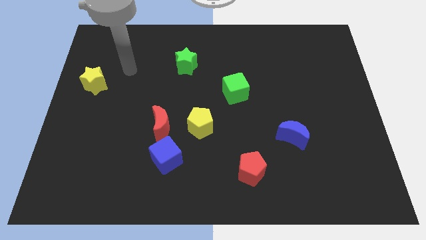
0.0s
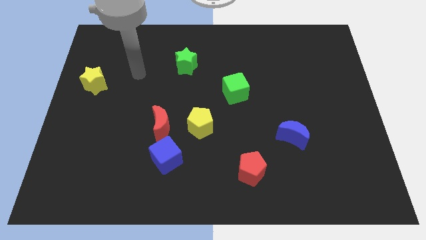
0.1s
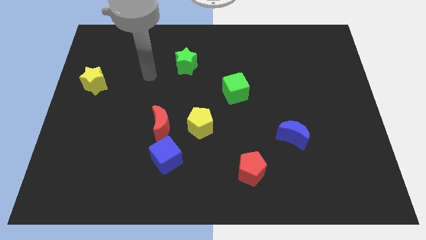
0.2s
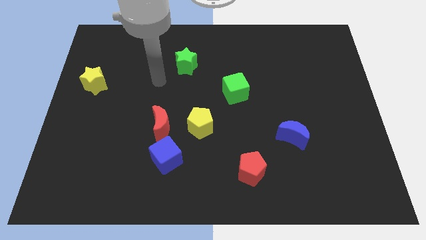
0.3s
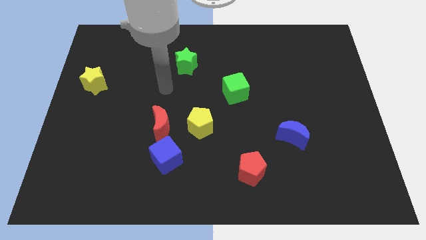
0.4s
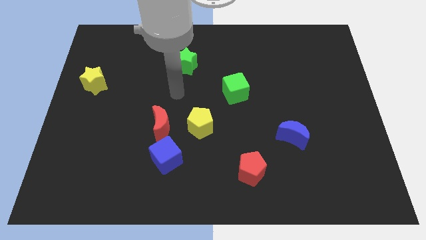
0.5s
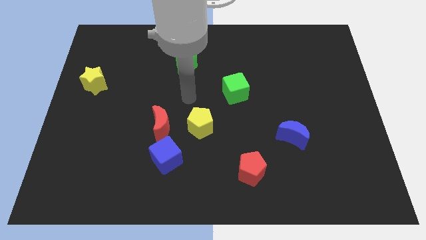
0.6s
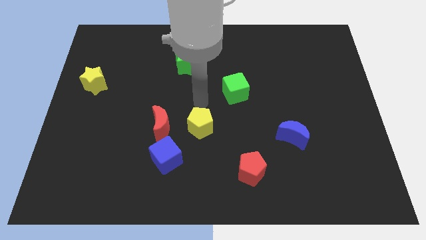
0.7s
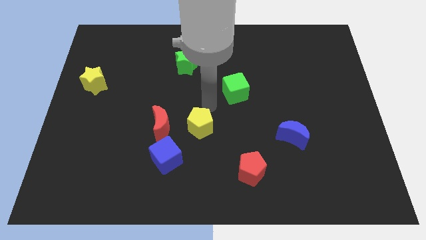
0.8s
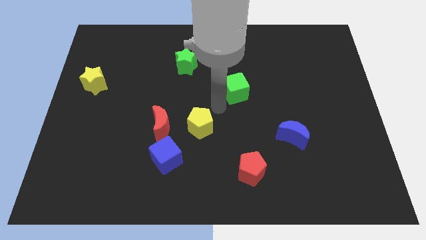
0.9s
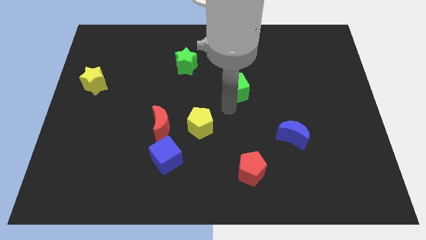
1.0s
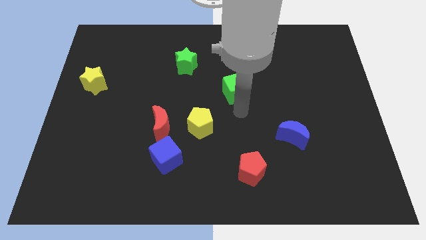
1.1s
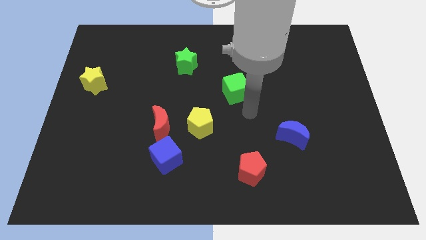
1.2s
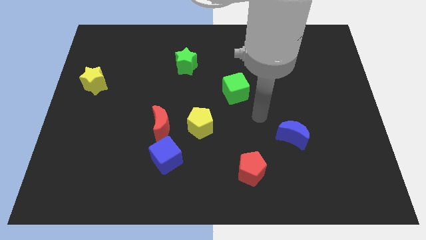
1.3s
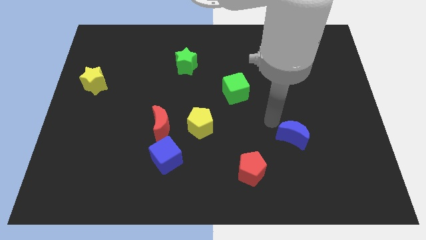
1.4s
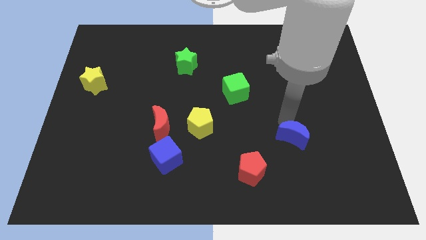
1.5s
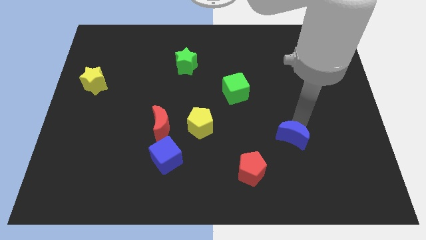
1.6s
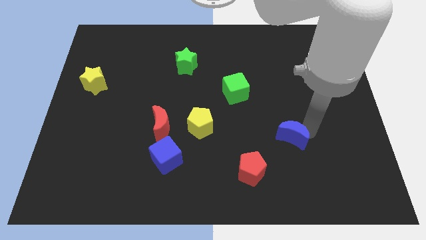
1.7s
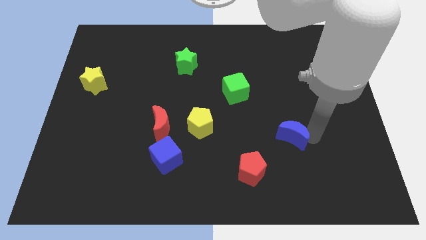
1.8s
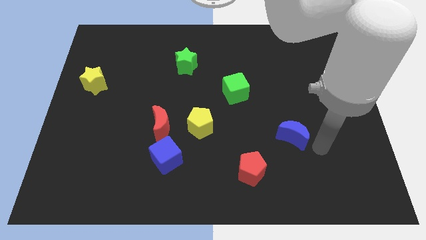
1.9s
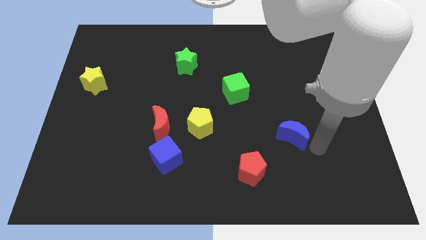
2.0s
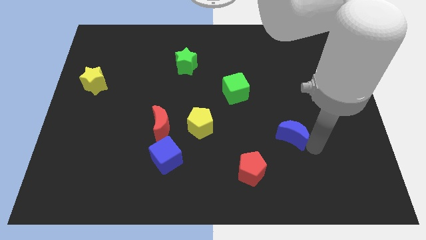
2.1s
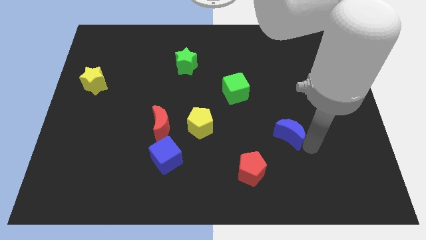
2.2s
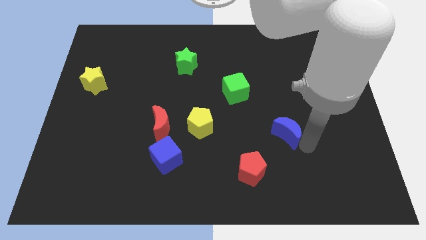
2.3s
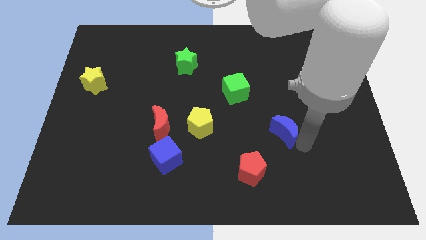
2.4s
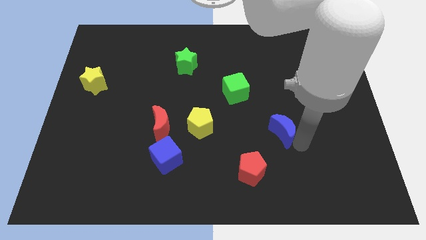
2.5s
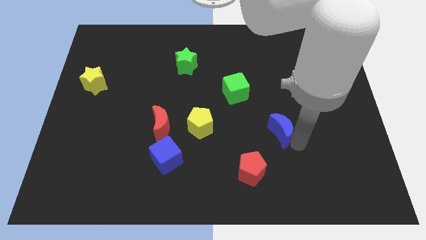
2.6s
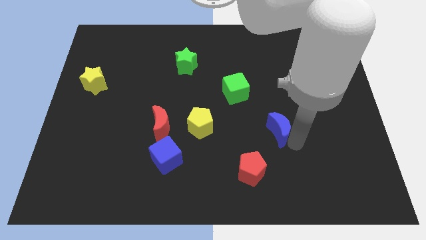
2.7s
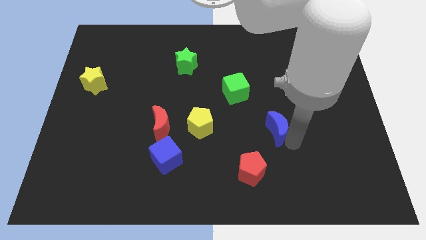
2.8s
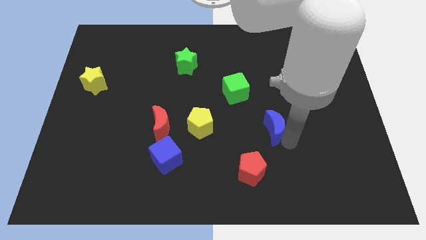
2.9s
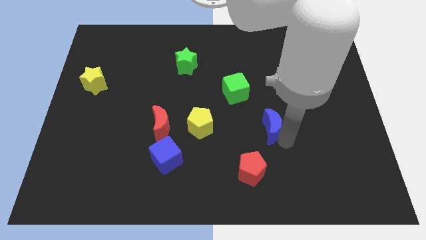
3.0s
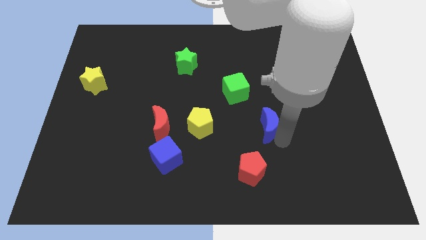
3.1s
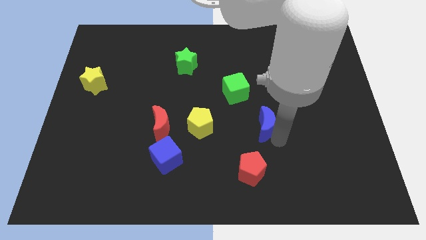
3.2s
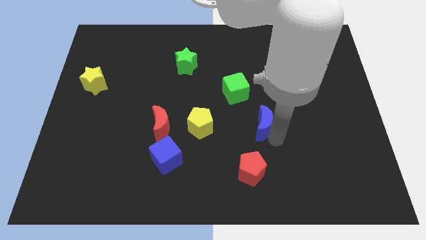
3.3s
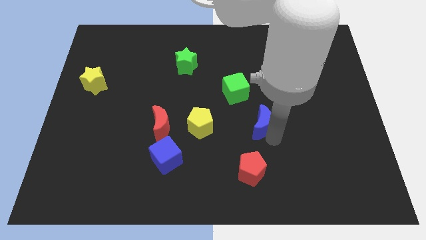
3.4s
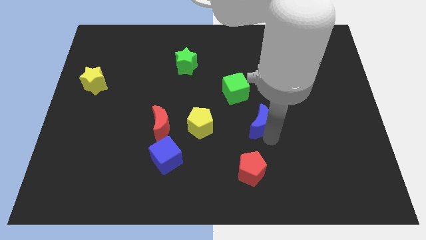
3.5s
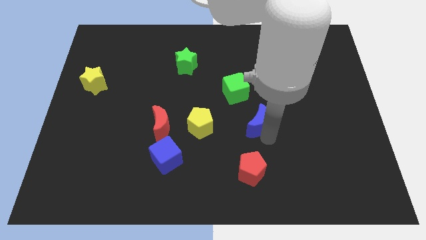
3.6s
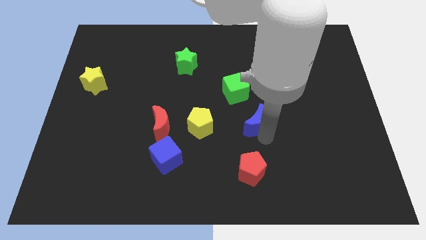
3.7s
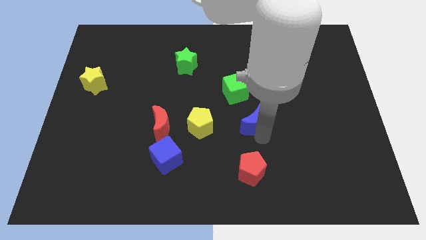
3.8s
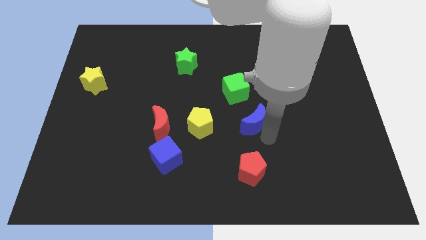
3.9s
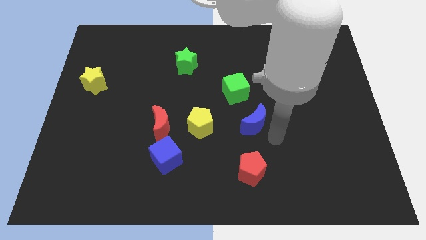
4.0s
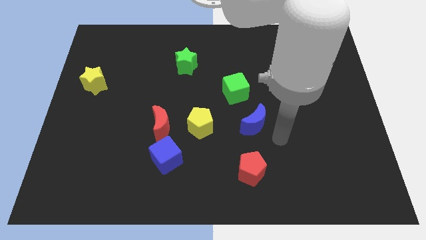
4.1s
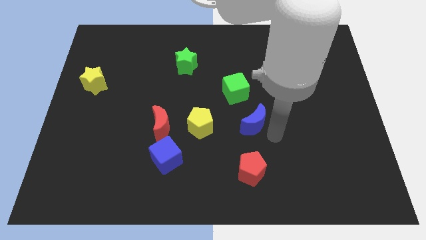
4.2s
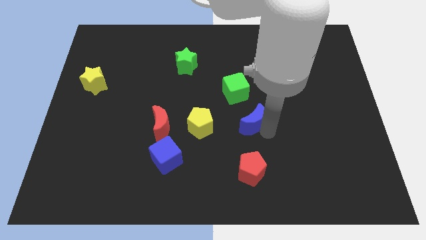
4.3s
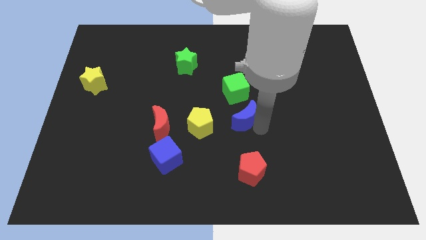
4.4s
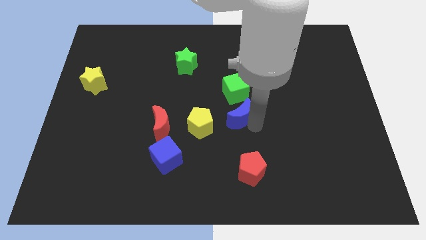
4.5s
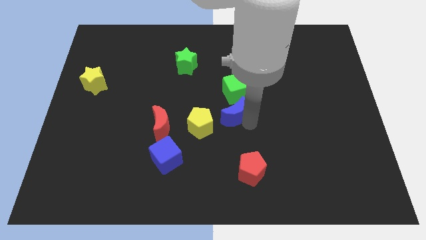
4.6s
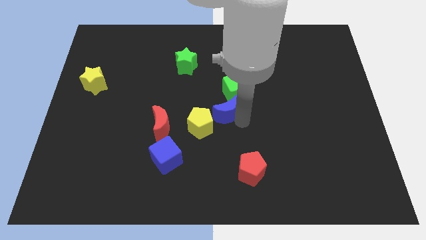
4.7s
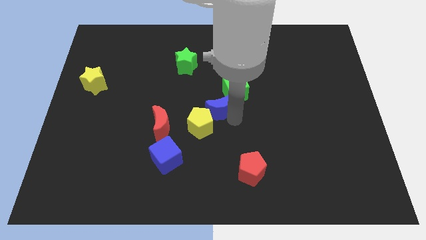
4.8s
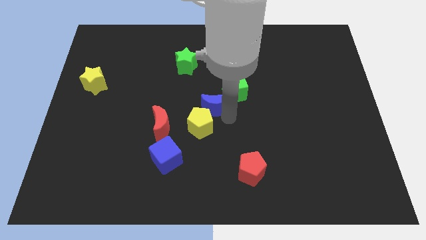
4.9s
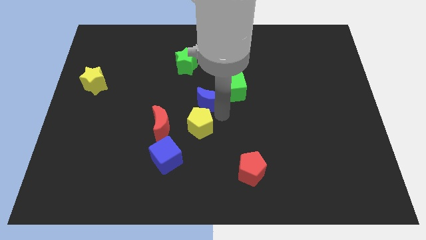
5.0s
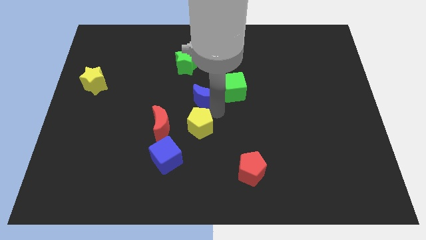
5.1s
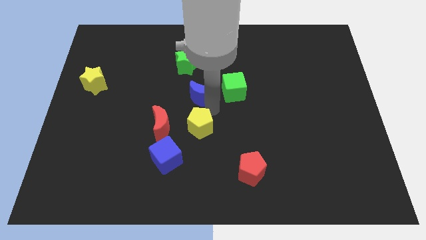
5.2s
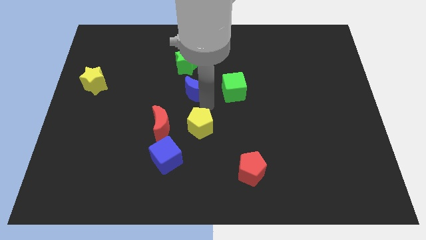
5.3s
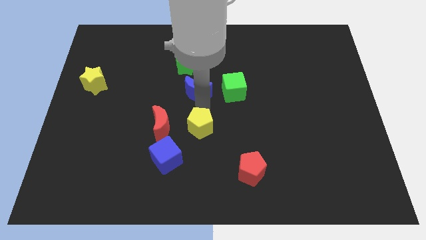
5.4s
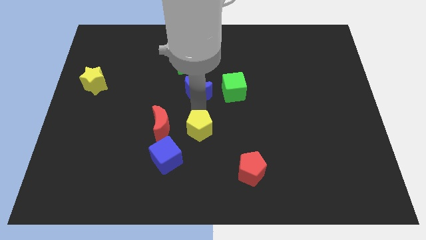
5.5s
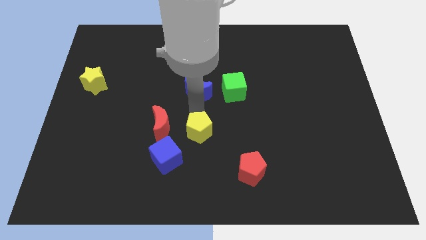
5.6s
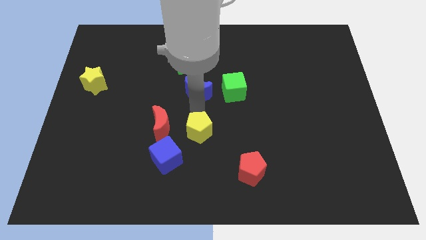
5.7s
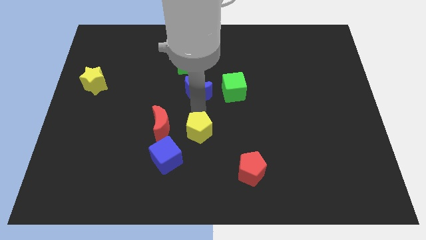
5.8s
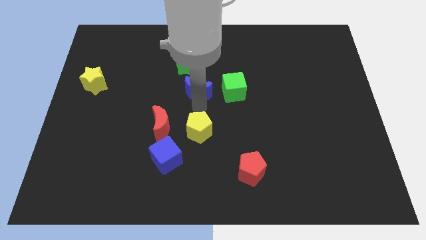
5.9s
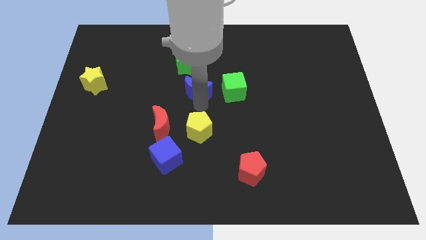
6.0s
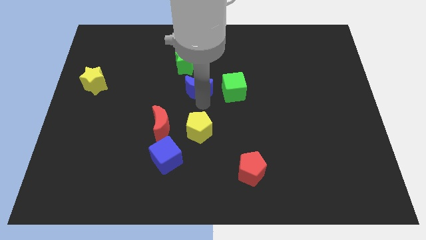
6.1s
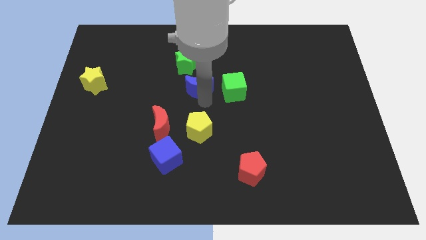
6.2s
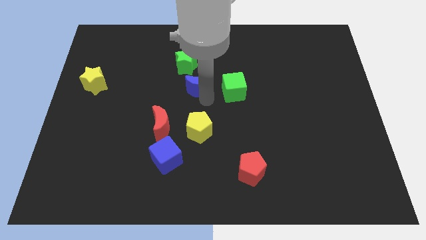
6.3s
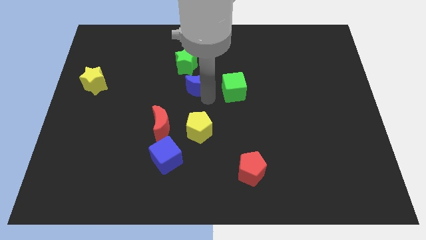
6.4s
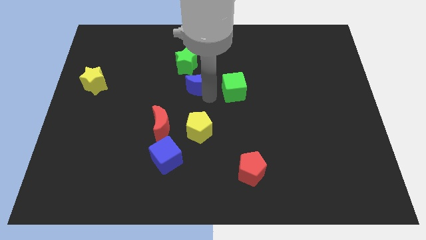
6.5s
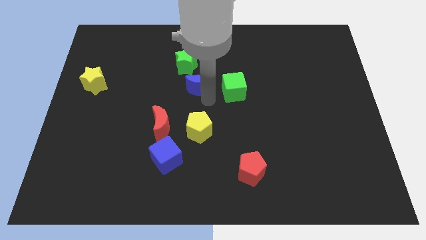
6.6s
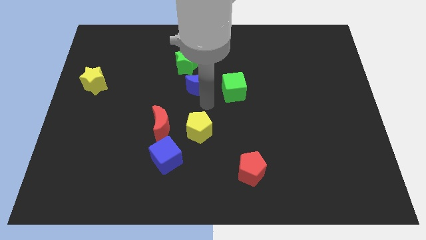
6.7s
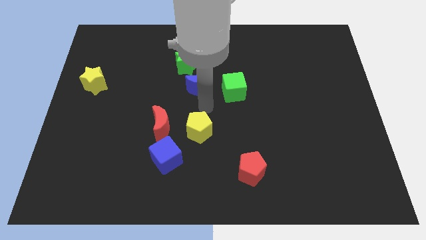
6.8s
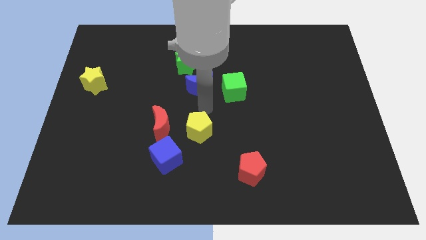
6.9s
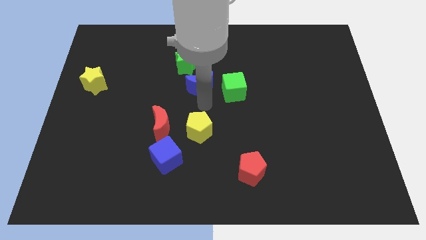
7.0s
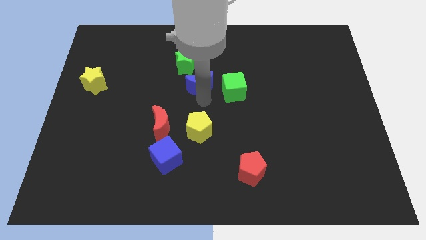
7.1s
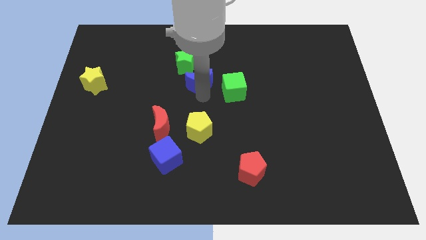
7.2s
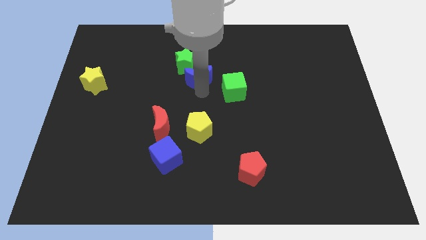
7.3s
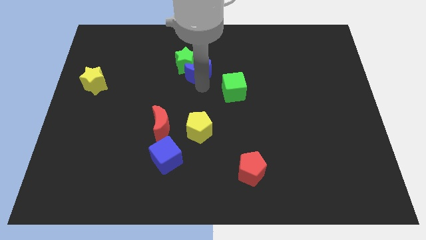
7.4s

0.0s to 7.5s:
slide the blue moon next to the green star
